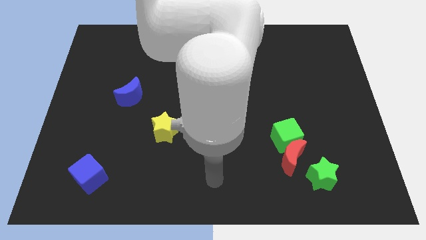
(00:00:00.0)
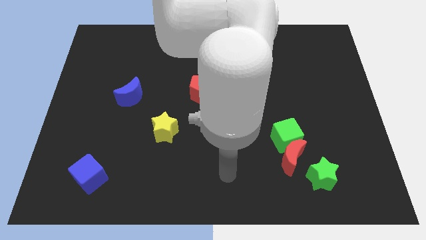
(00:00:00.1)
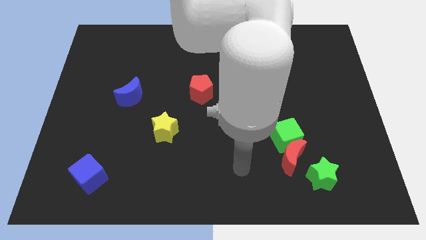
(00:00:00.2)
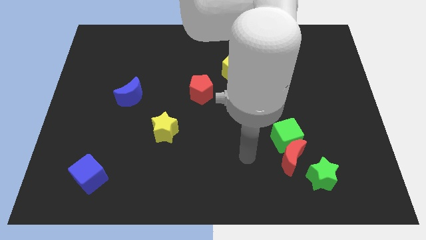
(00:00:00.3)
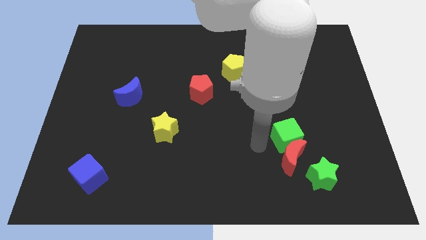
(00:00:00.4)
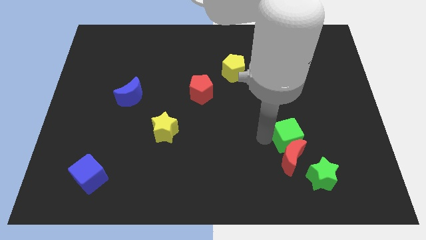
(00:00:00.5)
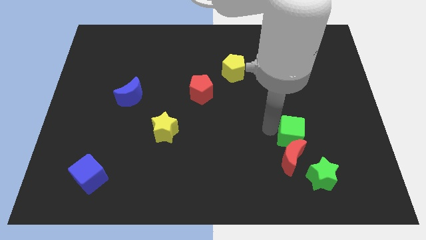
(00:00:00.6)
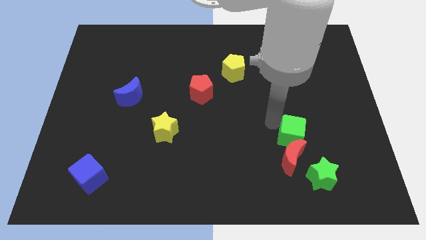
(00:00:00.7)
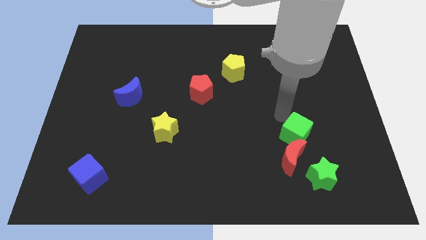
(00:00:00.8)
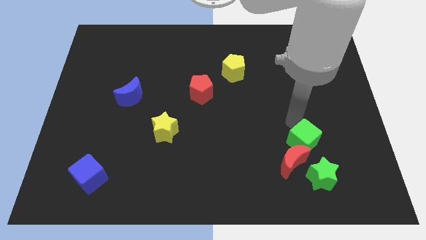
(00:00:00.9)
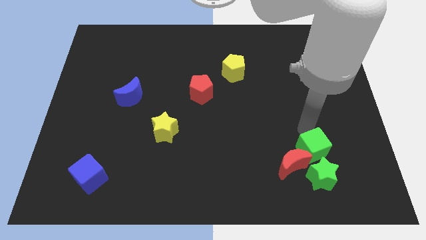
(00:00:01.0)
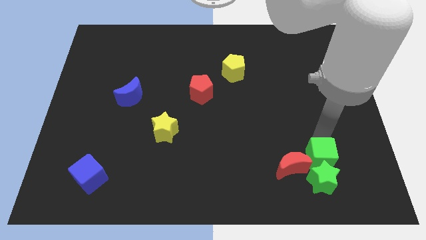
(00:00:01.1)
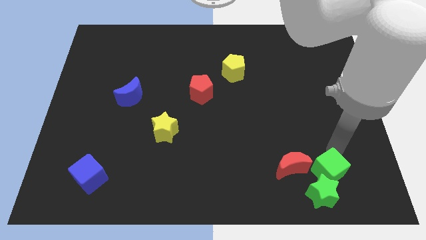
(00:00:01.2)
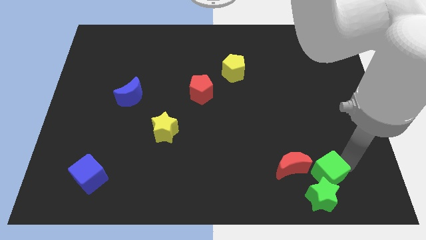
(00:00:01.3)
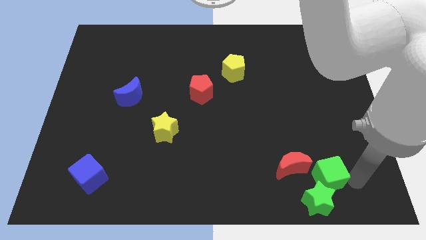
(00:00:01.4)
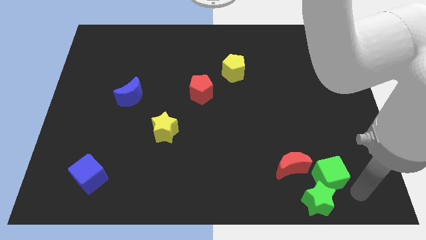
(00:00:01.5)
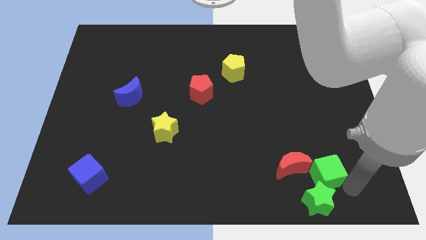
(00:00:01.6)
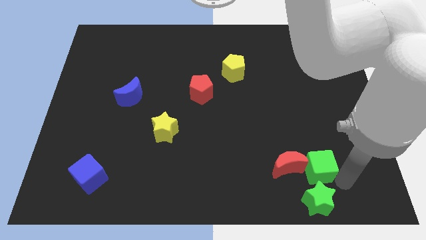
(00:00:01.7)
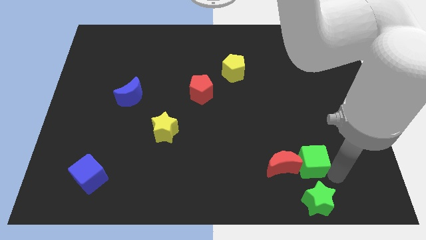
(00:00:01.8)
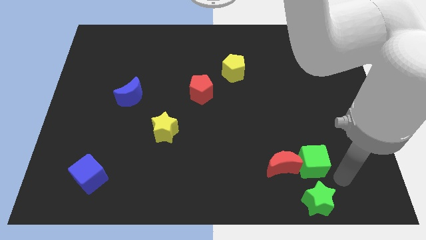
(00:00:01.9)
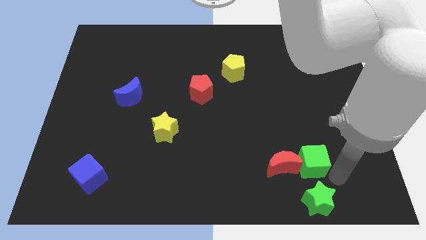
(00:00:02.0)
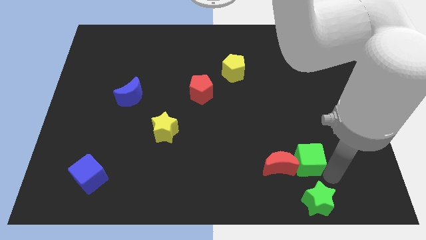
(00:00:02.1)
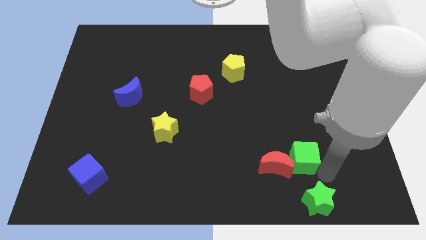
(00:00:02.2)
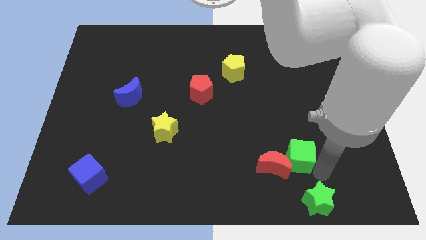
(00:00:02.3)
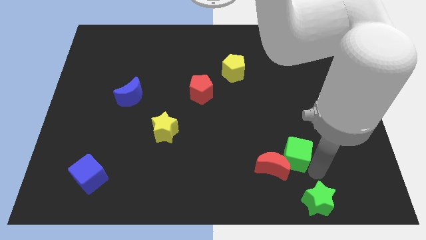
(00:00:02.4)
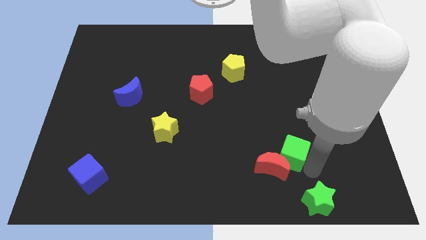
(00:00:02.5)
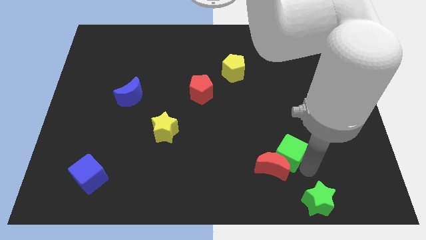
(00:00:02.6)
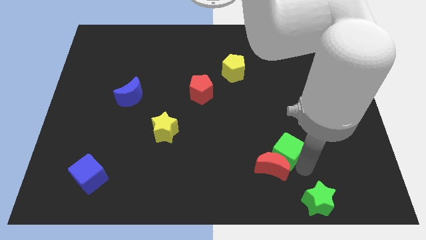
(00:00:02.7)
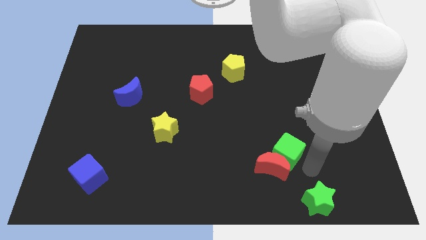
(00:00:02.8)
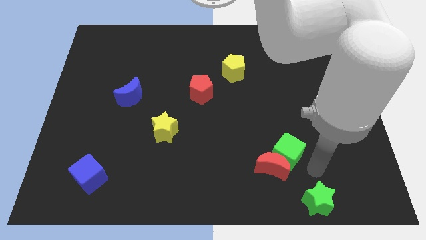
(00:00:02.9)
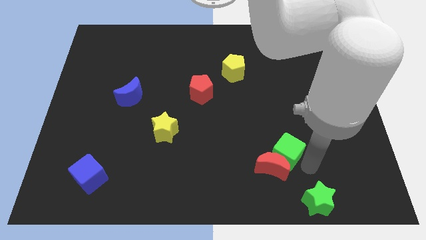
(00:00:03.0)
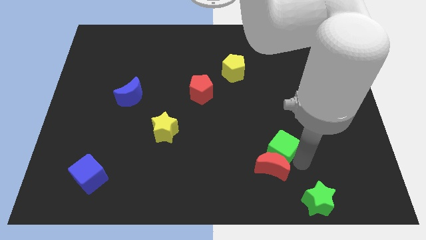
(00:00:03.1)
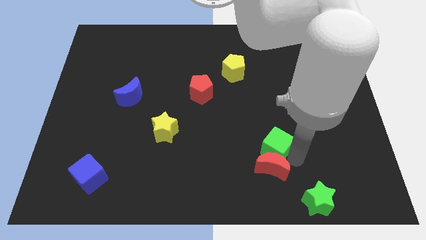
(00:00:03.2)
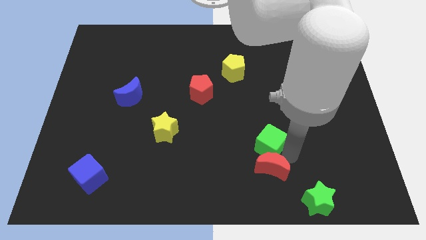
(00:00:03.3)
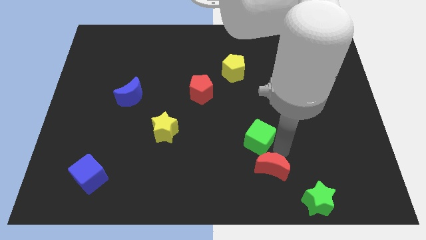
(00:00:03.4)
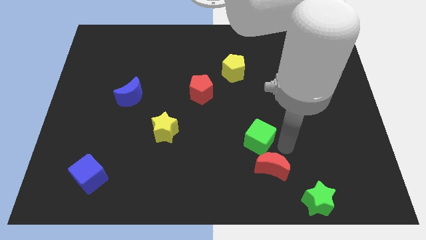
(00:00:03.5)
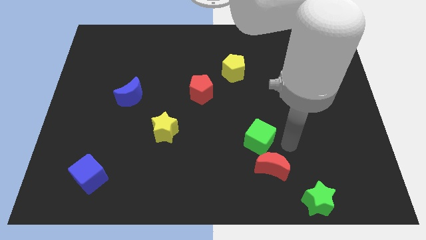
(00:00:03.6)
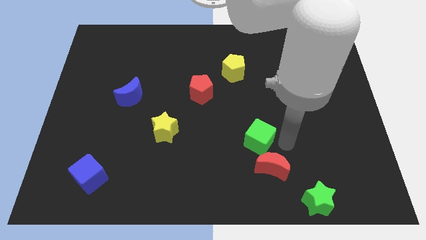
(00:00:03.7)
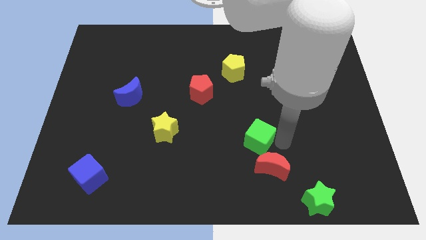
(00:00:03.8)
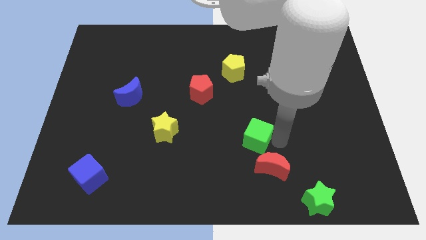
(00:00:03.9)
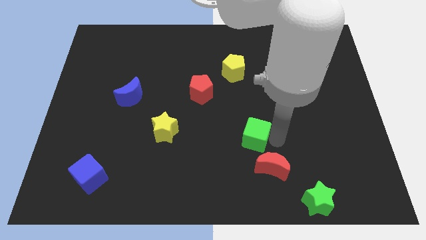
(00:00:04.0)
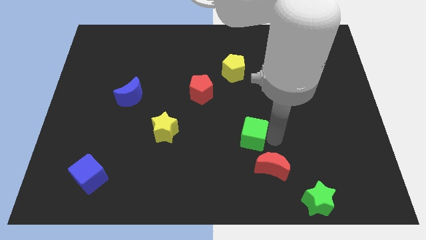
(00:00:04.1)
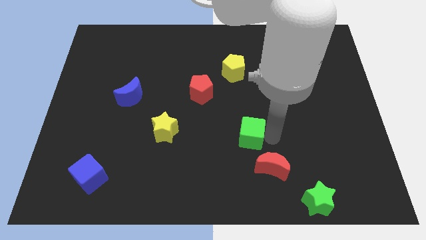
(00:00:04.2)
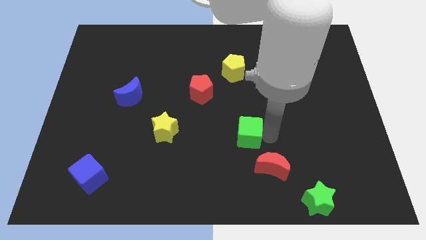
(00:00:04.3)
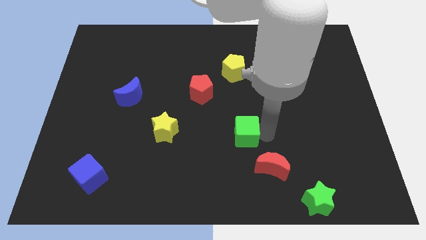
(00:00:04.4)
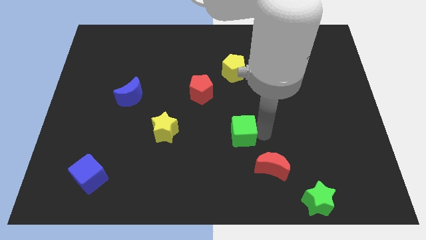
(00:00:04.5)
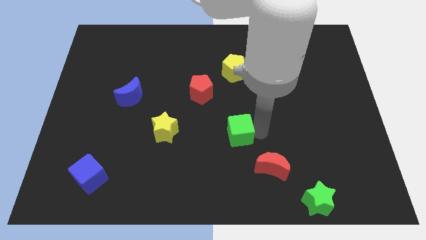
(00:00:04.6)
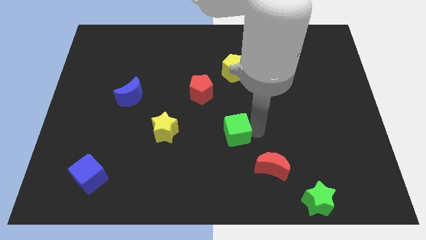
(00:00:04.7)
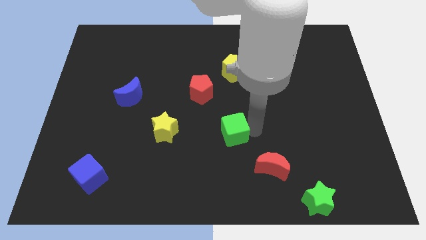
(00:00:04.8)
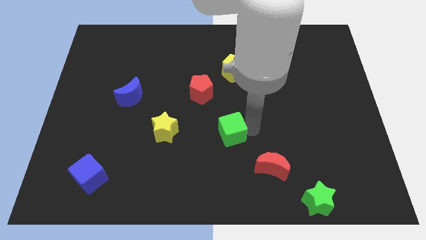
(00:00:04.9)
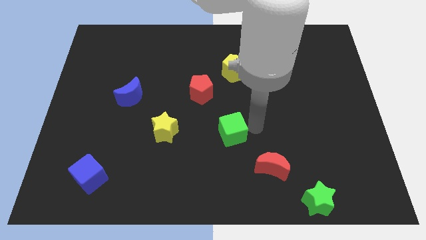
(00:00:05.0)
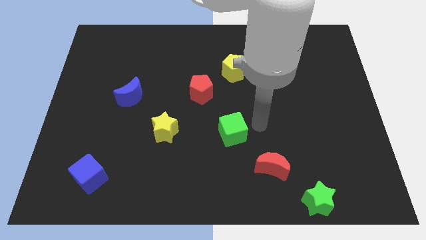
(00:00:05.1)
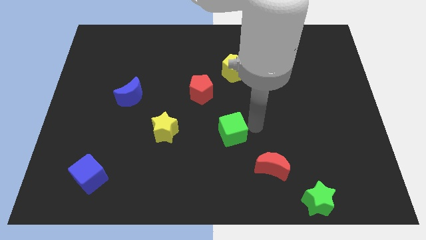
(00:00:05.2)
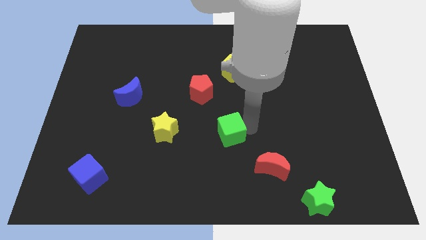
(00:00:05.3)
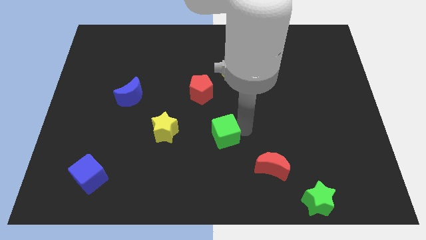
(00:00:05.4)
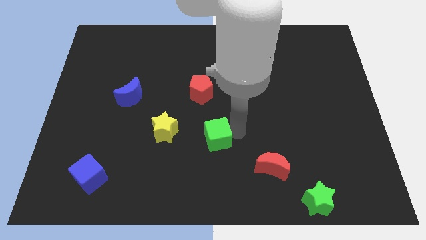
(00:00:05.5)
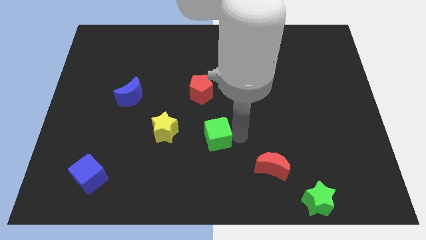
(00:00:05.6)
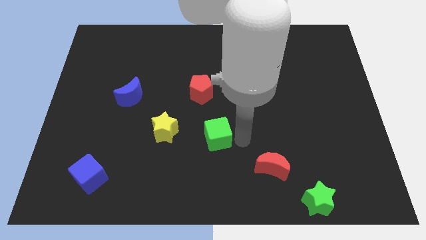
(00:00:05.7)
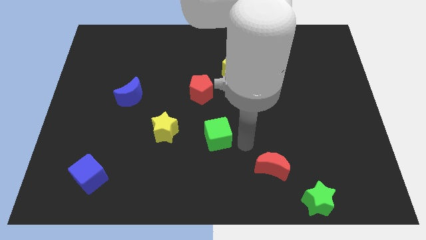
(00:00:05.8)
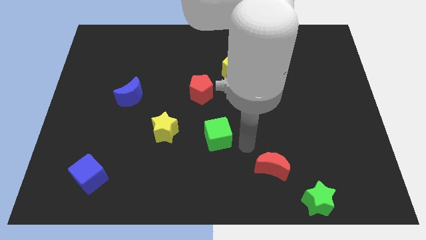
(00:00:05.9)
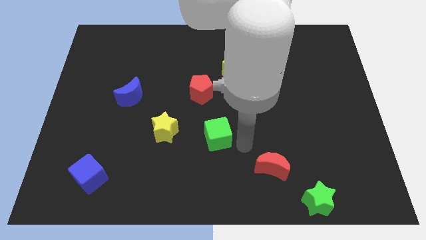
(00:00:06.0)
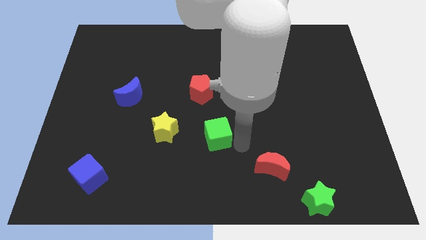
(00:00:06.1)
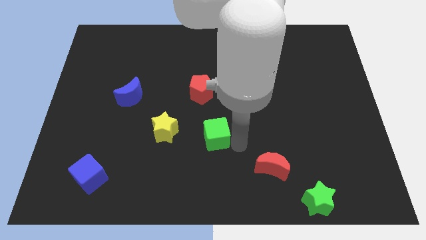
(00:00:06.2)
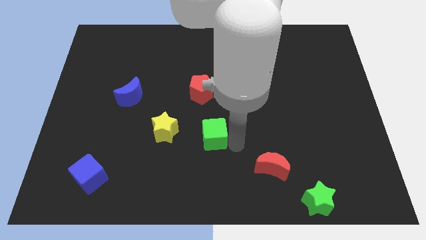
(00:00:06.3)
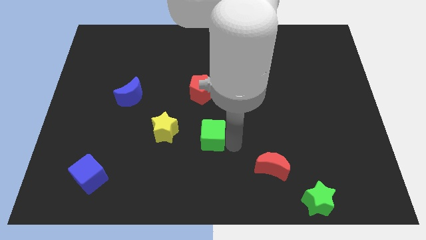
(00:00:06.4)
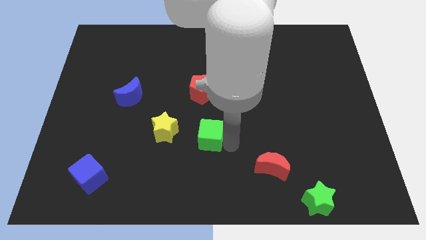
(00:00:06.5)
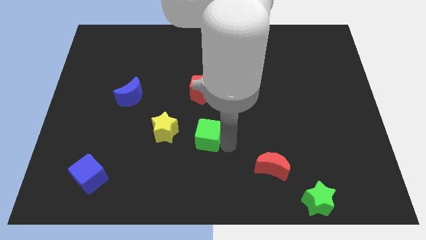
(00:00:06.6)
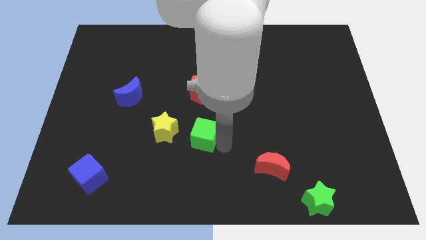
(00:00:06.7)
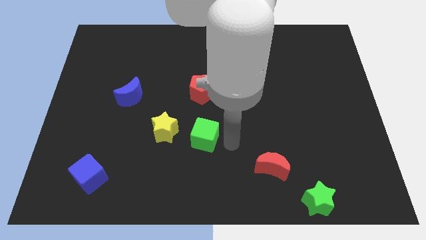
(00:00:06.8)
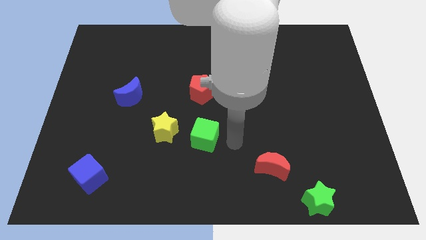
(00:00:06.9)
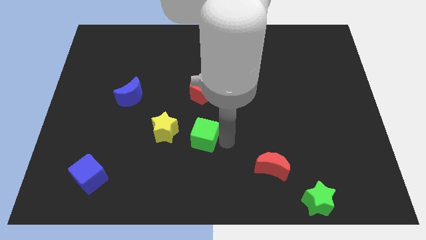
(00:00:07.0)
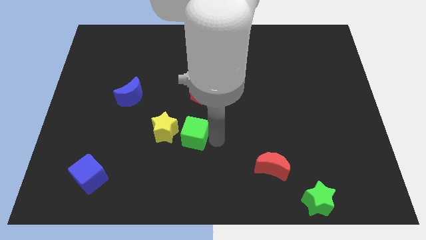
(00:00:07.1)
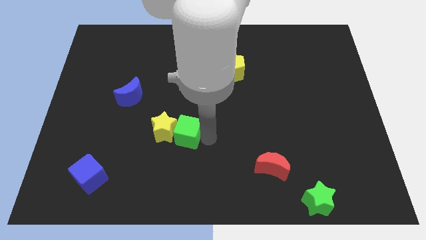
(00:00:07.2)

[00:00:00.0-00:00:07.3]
move the green cube towards the yellow star

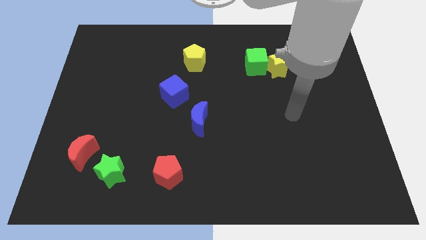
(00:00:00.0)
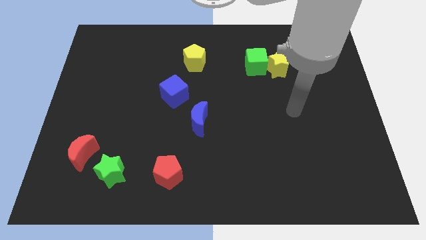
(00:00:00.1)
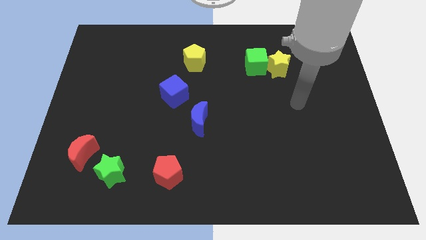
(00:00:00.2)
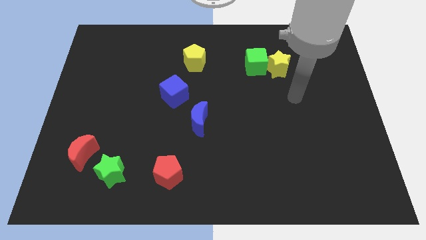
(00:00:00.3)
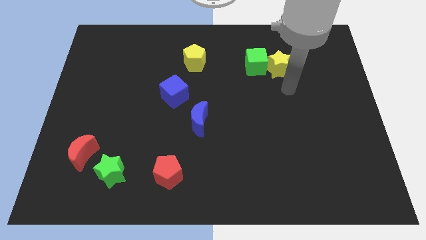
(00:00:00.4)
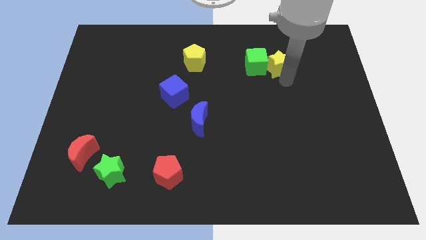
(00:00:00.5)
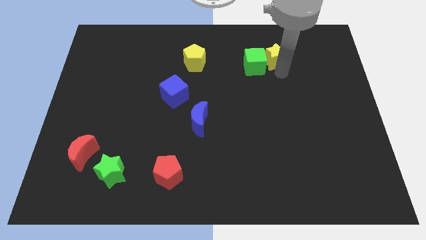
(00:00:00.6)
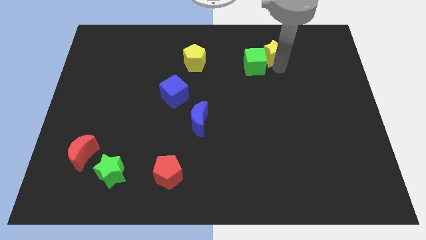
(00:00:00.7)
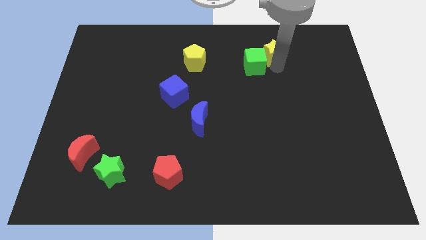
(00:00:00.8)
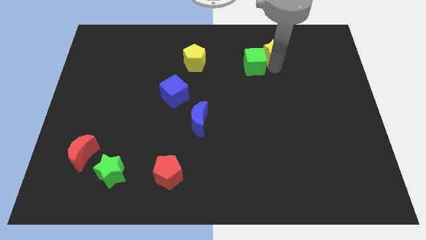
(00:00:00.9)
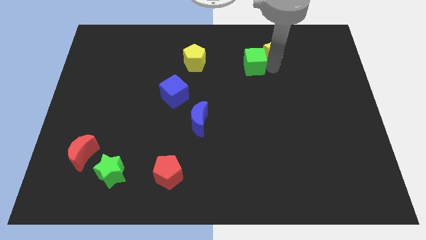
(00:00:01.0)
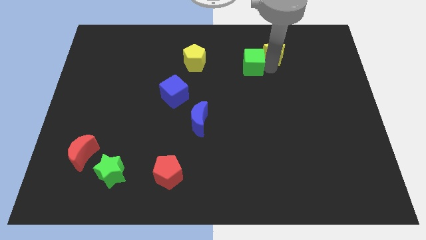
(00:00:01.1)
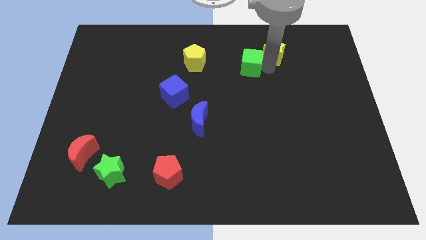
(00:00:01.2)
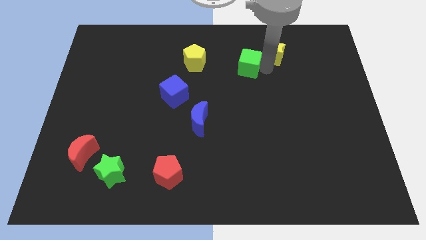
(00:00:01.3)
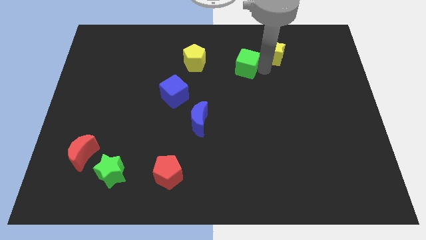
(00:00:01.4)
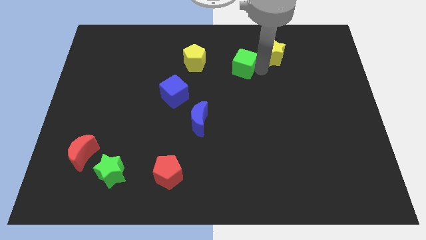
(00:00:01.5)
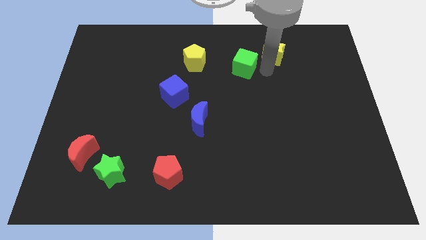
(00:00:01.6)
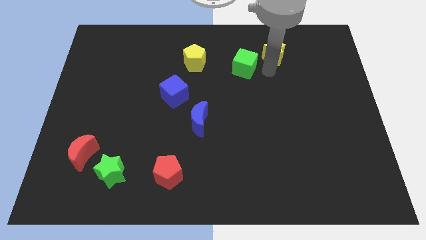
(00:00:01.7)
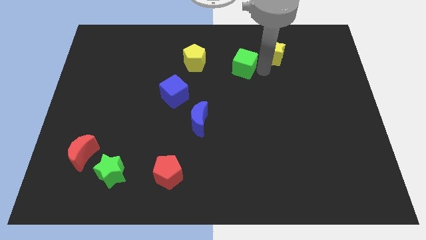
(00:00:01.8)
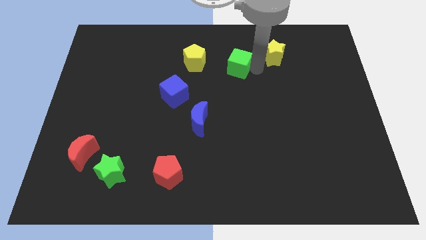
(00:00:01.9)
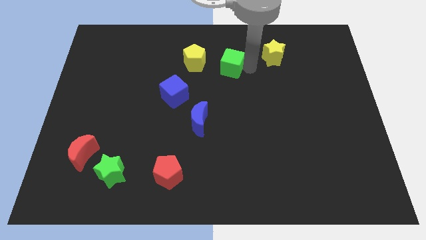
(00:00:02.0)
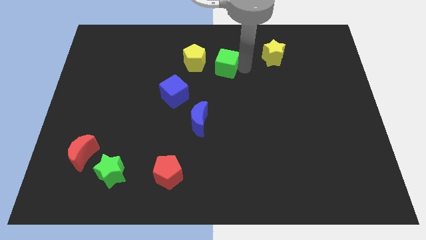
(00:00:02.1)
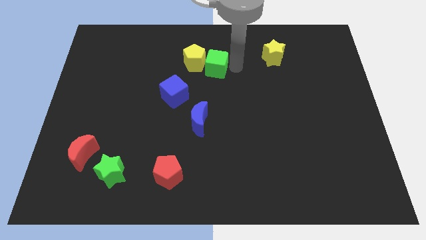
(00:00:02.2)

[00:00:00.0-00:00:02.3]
put the green cube next to the yellow pentagon
